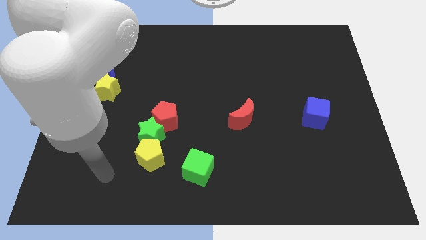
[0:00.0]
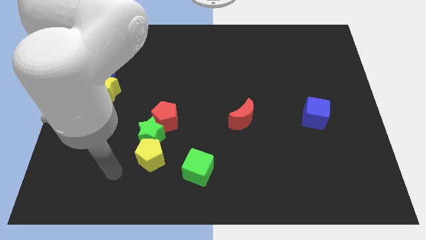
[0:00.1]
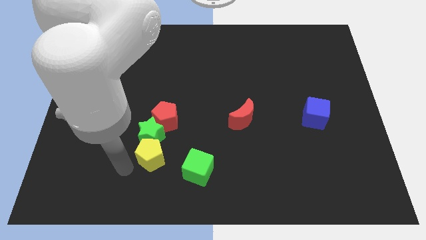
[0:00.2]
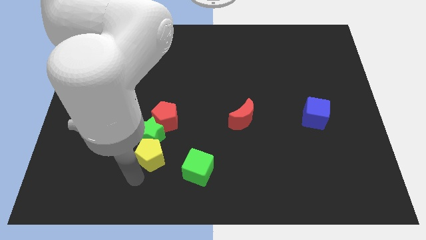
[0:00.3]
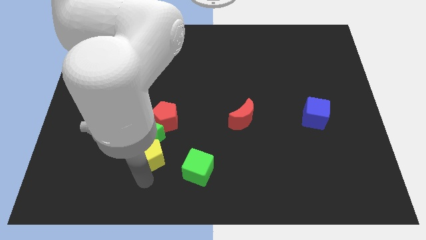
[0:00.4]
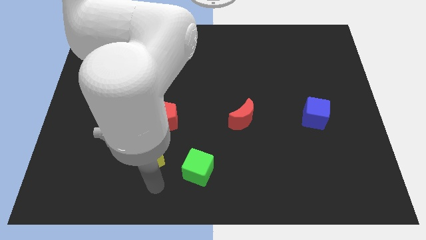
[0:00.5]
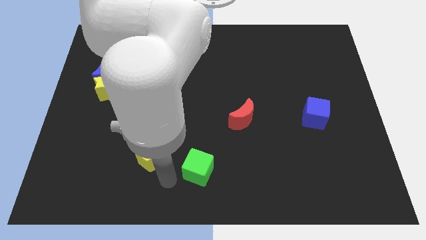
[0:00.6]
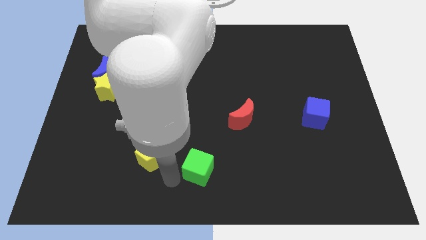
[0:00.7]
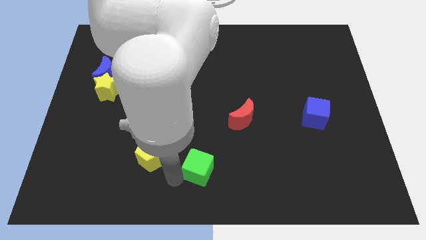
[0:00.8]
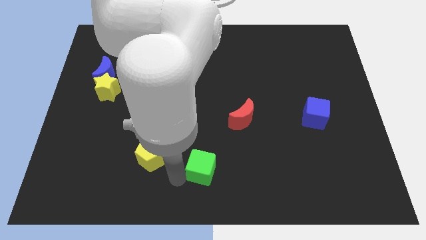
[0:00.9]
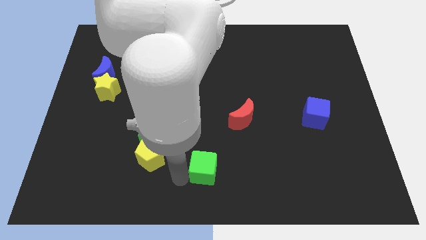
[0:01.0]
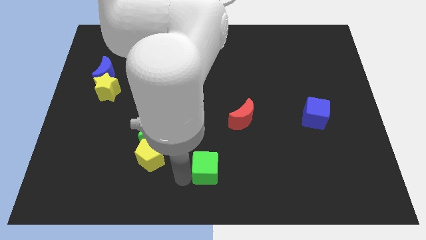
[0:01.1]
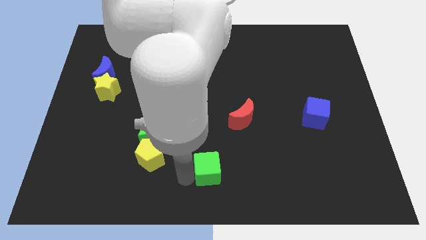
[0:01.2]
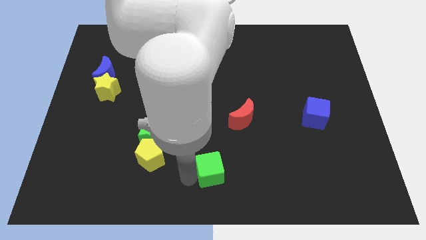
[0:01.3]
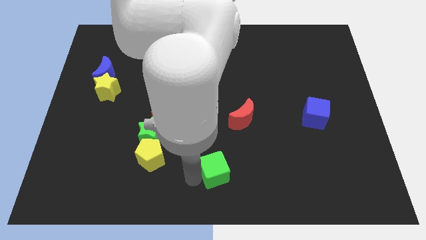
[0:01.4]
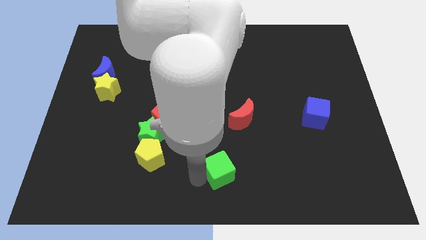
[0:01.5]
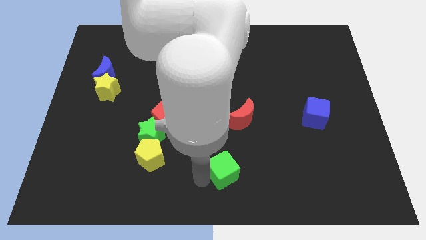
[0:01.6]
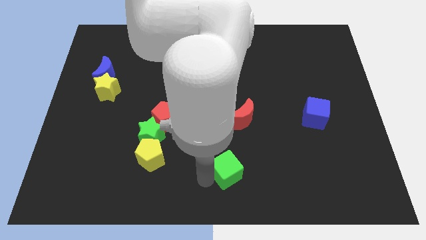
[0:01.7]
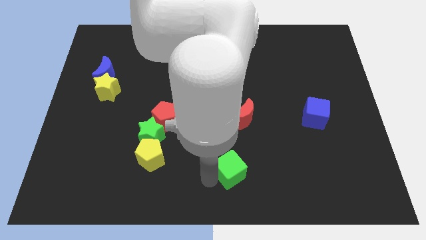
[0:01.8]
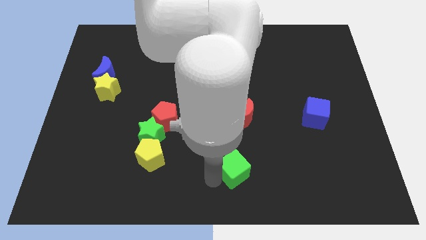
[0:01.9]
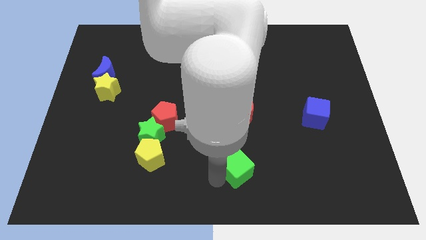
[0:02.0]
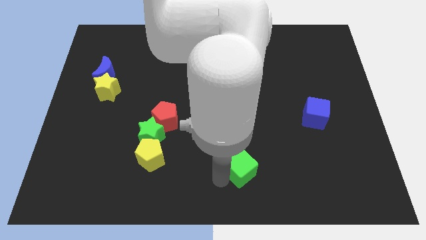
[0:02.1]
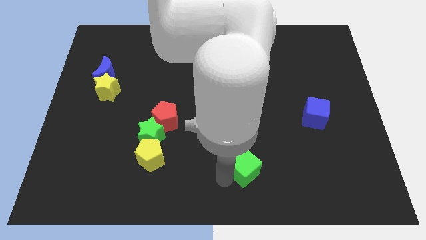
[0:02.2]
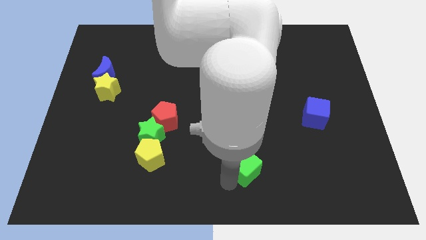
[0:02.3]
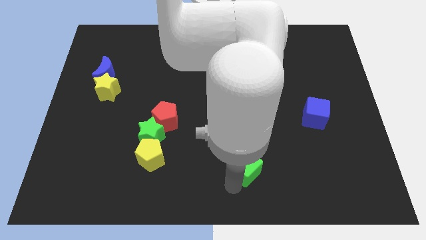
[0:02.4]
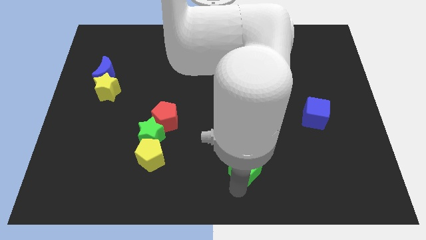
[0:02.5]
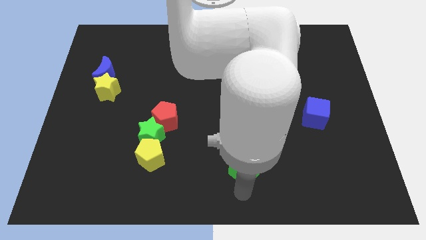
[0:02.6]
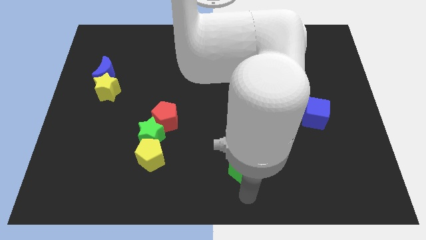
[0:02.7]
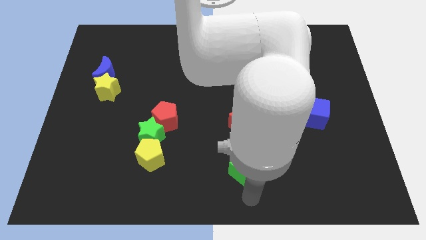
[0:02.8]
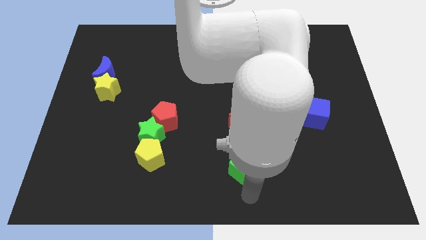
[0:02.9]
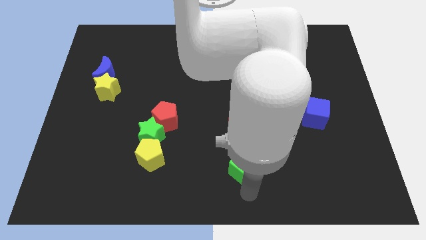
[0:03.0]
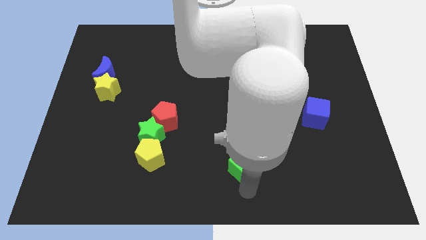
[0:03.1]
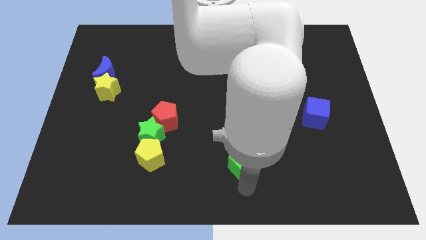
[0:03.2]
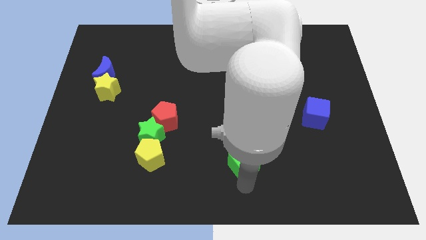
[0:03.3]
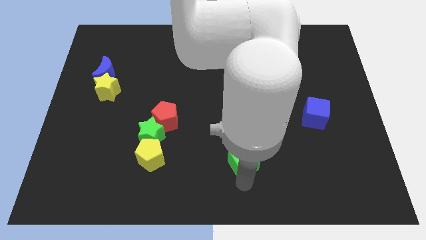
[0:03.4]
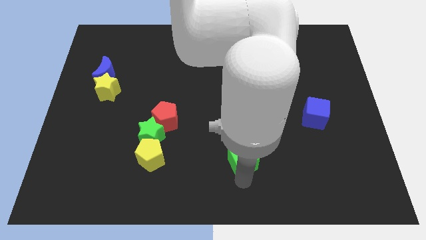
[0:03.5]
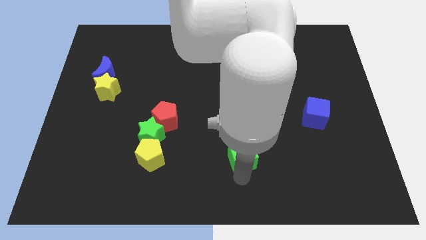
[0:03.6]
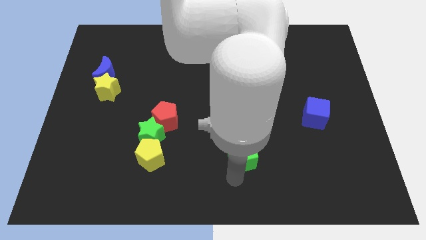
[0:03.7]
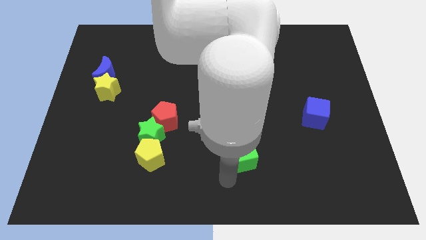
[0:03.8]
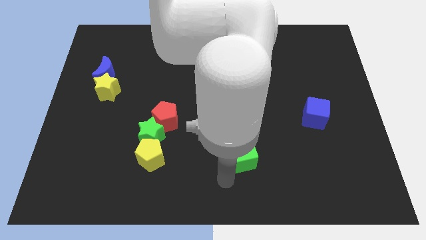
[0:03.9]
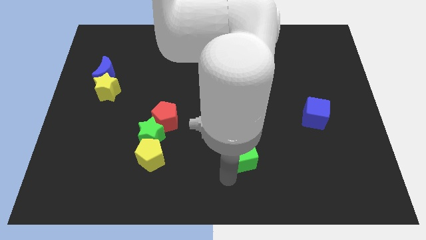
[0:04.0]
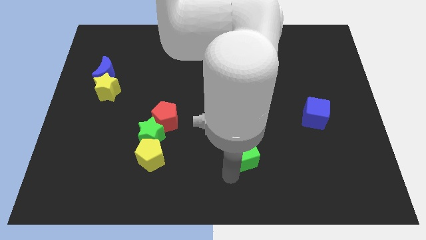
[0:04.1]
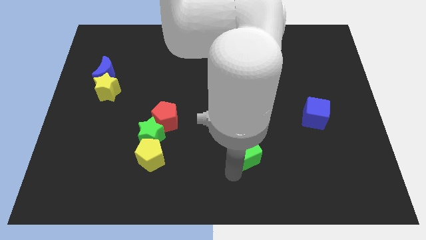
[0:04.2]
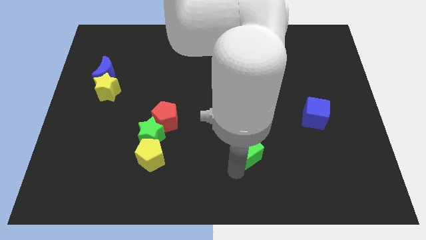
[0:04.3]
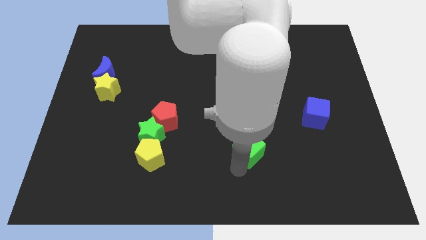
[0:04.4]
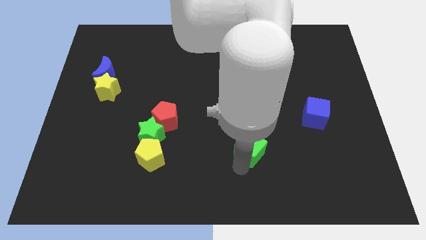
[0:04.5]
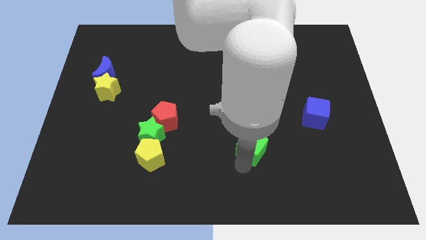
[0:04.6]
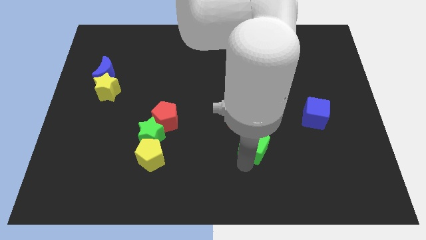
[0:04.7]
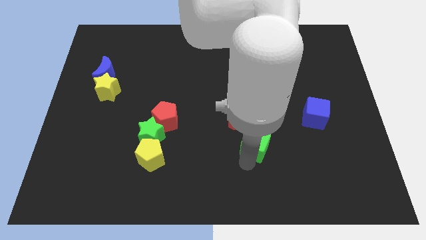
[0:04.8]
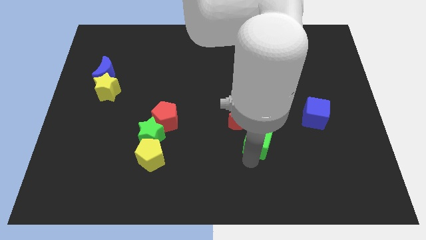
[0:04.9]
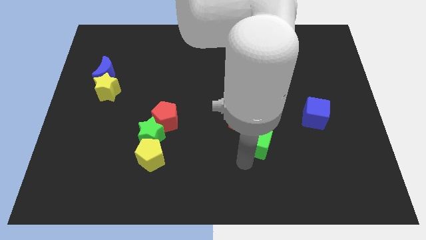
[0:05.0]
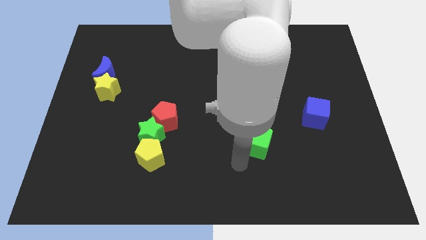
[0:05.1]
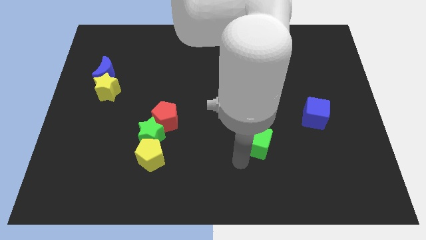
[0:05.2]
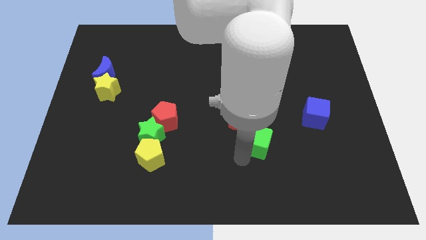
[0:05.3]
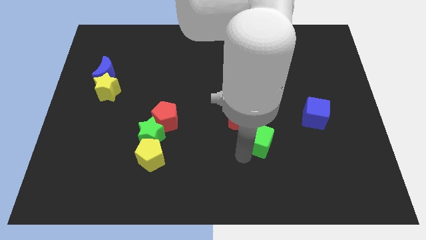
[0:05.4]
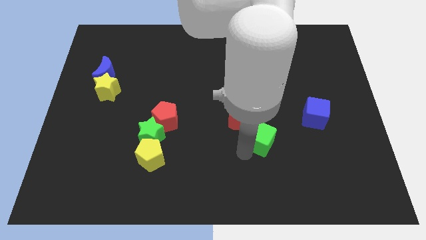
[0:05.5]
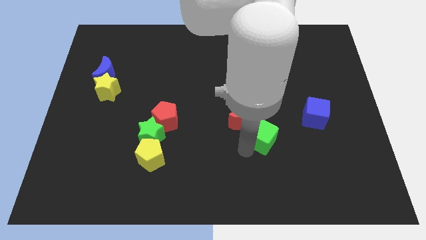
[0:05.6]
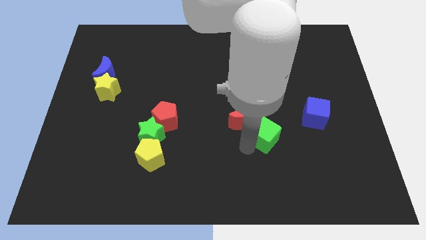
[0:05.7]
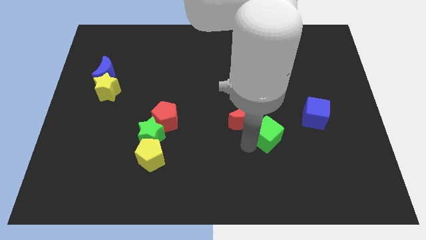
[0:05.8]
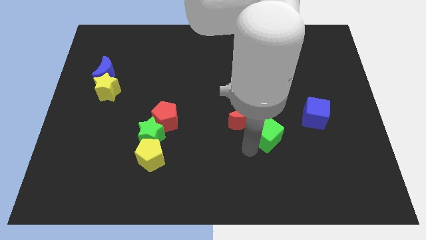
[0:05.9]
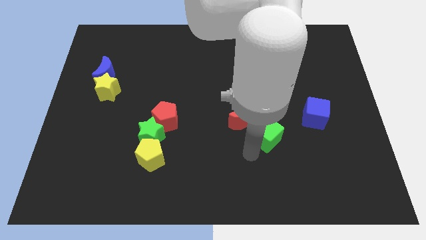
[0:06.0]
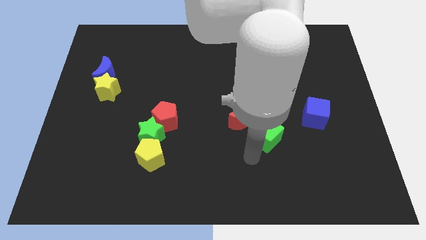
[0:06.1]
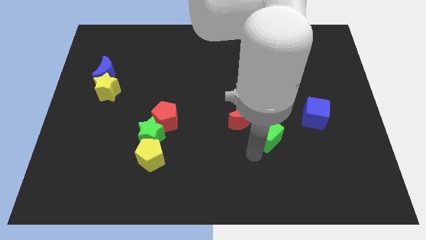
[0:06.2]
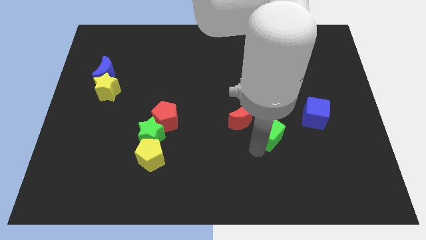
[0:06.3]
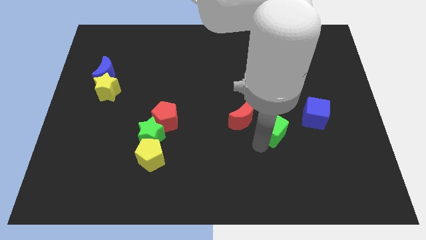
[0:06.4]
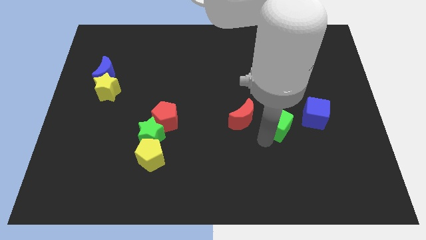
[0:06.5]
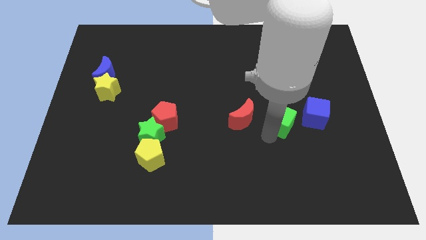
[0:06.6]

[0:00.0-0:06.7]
push the green cube upwards and then to the right

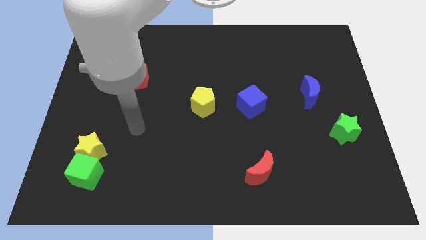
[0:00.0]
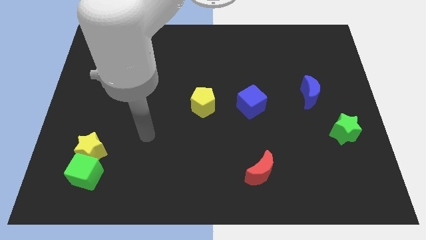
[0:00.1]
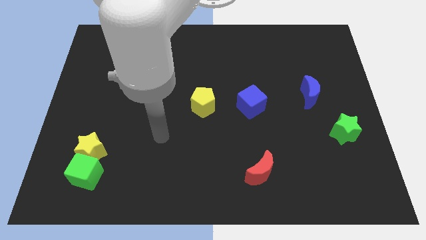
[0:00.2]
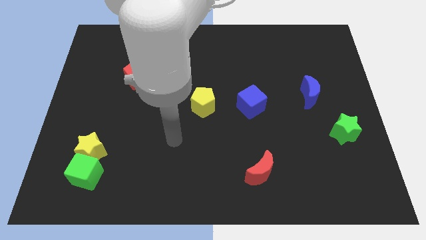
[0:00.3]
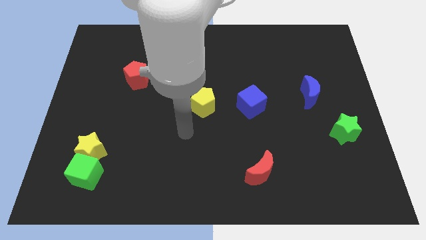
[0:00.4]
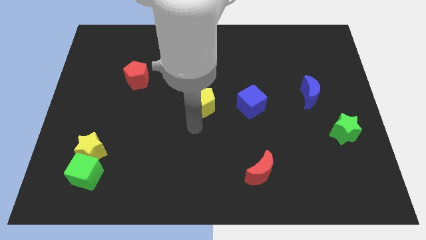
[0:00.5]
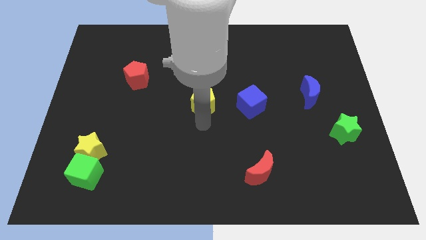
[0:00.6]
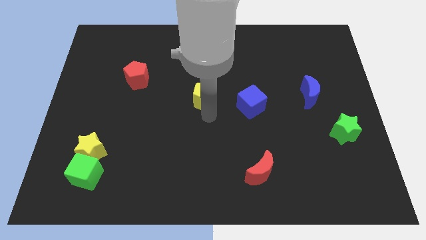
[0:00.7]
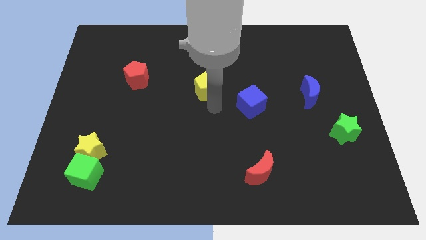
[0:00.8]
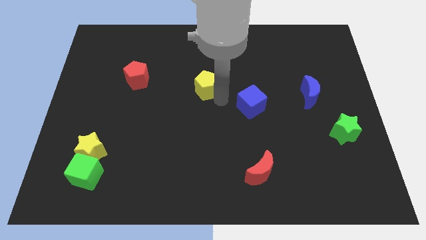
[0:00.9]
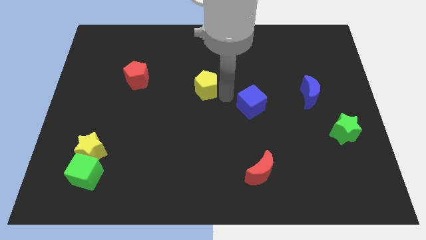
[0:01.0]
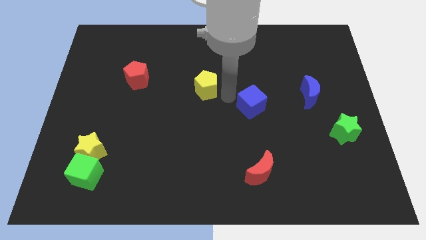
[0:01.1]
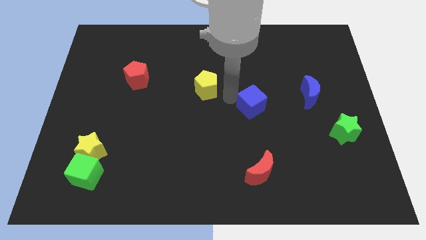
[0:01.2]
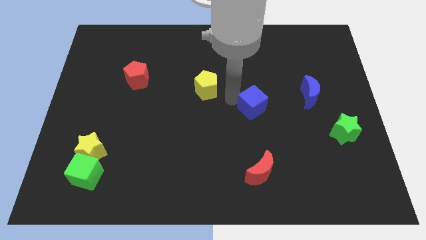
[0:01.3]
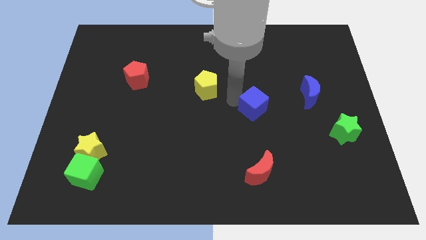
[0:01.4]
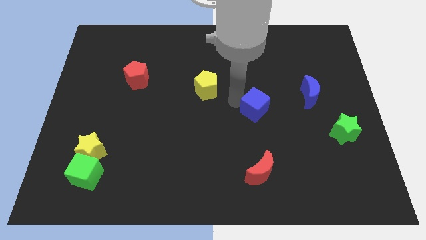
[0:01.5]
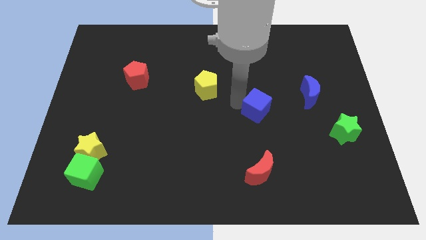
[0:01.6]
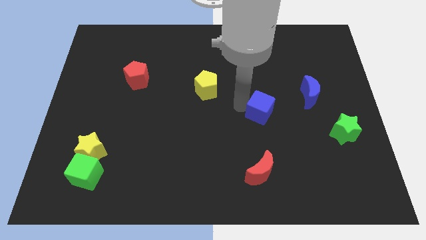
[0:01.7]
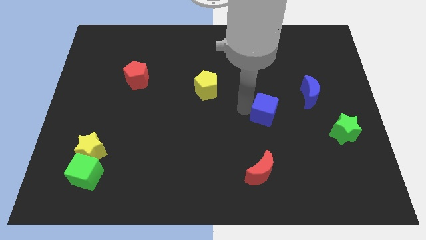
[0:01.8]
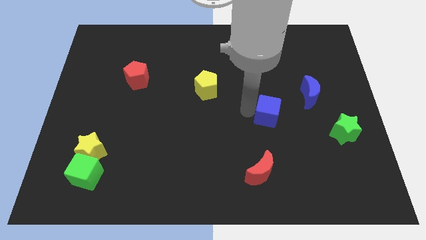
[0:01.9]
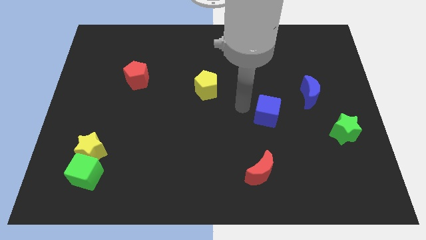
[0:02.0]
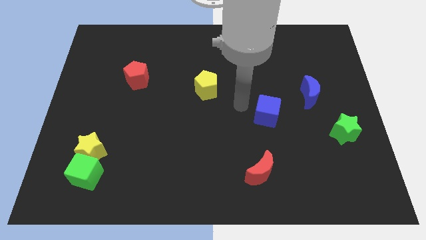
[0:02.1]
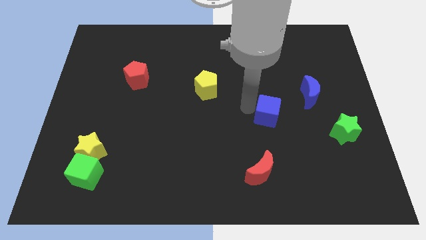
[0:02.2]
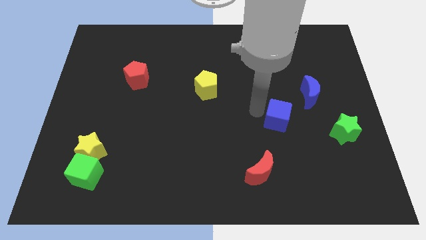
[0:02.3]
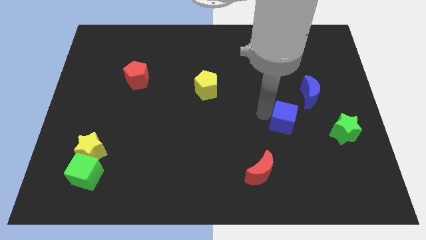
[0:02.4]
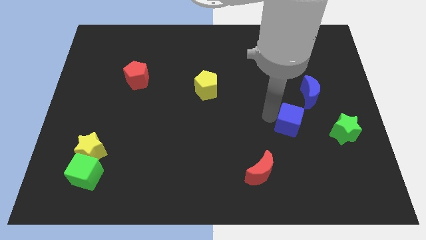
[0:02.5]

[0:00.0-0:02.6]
push the blue cube to the right somewhat
